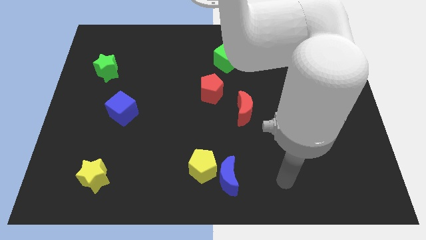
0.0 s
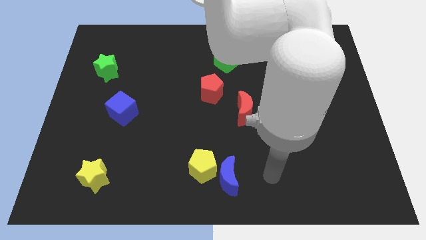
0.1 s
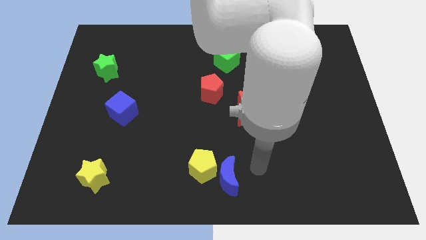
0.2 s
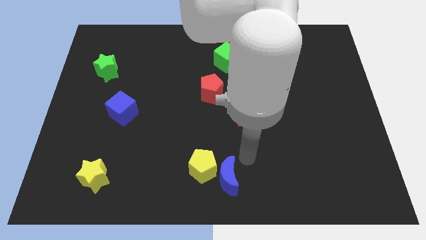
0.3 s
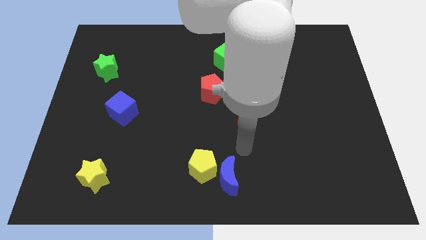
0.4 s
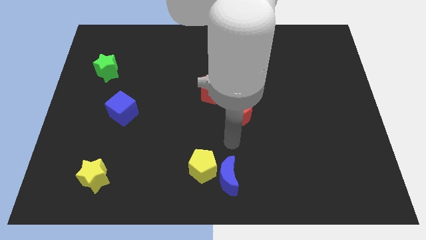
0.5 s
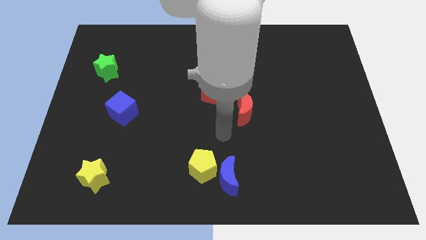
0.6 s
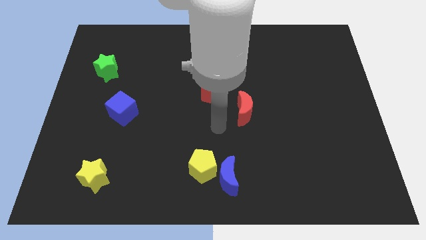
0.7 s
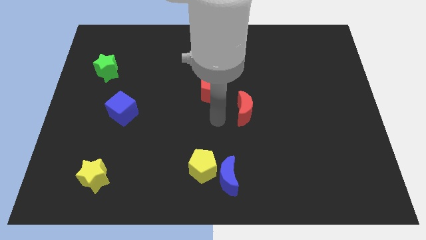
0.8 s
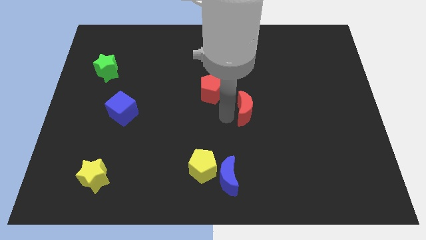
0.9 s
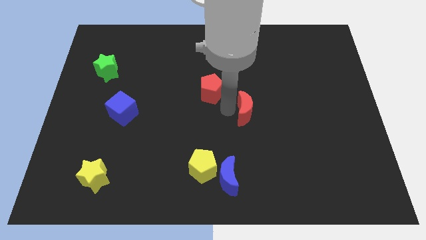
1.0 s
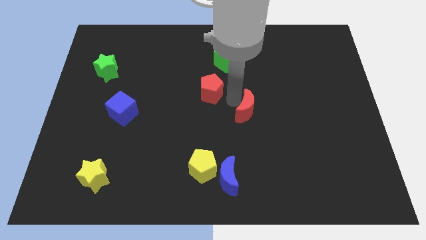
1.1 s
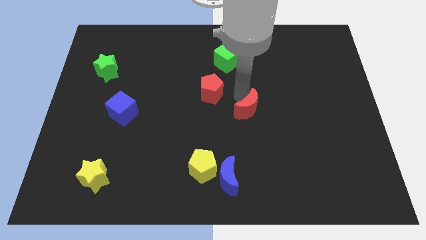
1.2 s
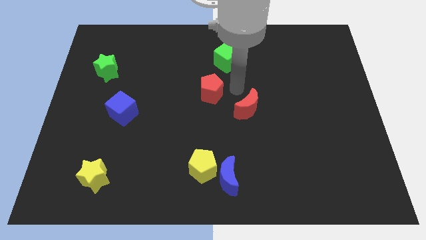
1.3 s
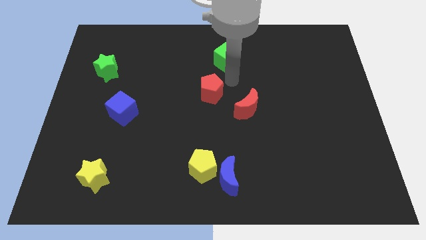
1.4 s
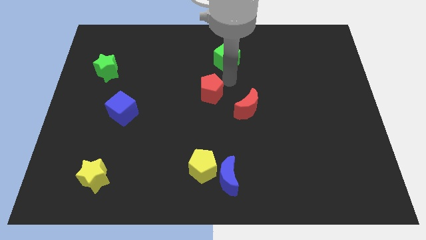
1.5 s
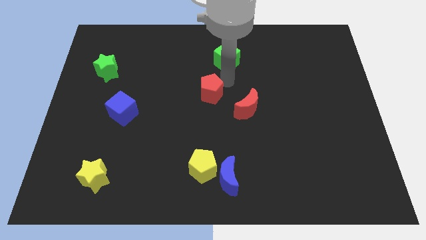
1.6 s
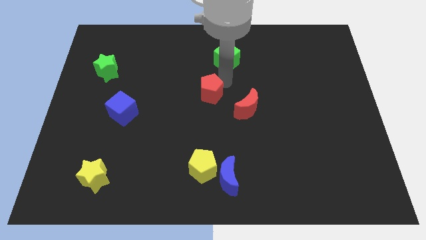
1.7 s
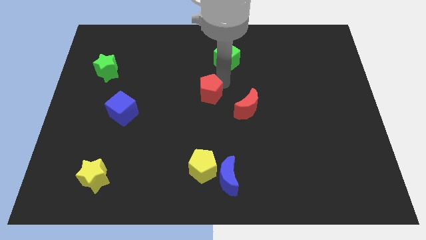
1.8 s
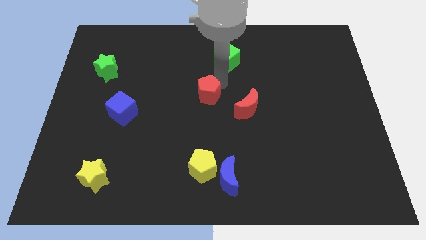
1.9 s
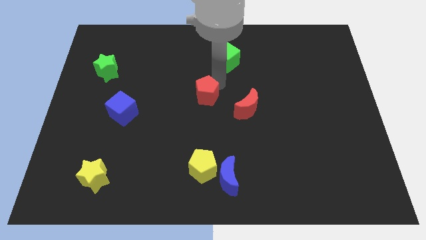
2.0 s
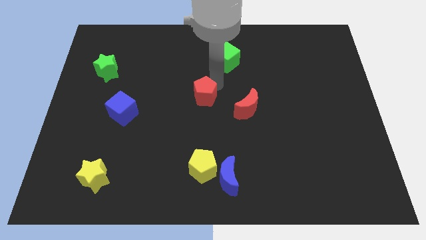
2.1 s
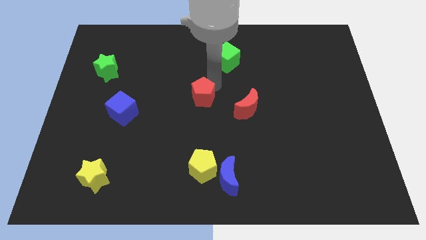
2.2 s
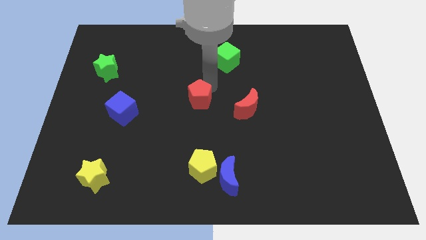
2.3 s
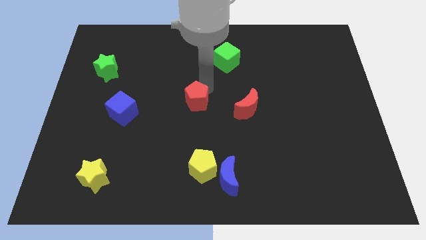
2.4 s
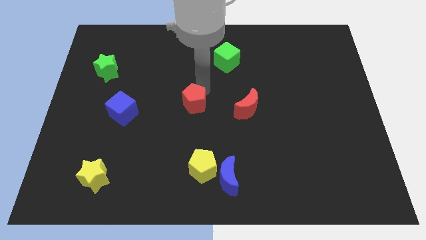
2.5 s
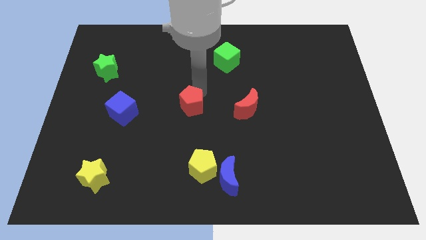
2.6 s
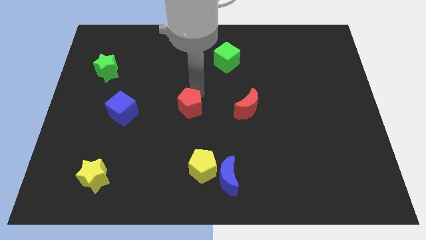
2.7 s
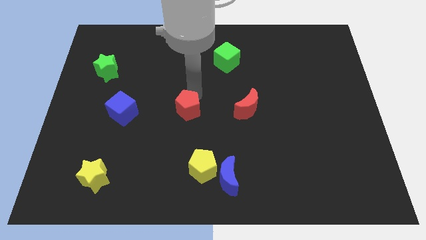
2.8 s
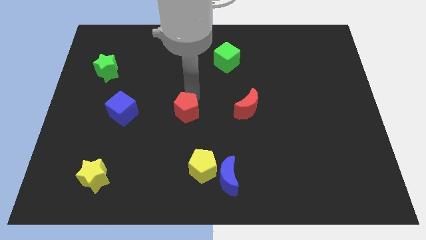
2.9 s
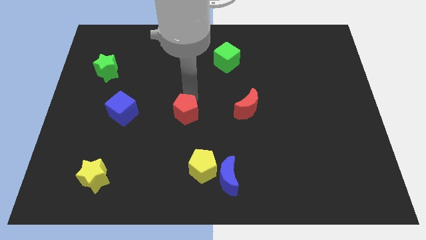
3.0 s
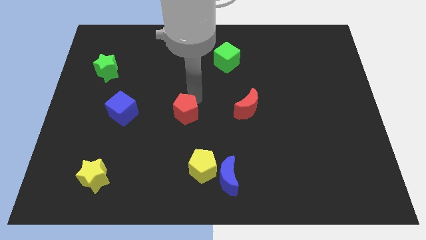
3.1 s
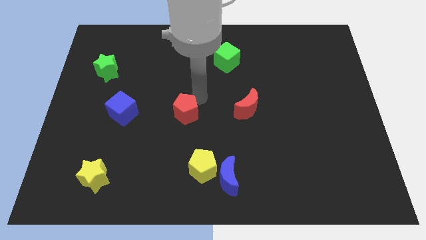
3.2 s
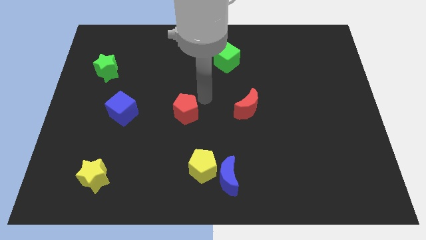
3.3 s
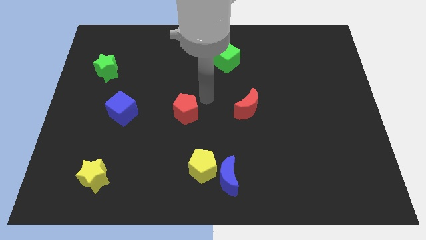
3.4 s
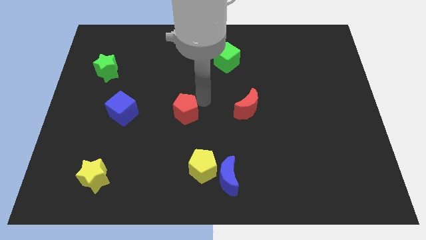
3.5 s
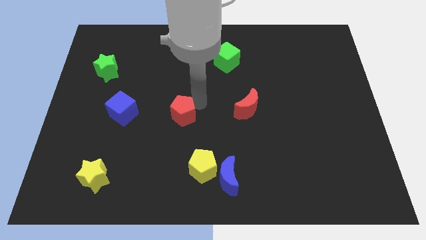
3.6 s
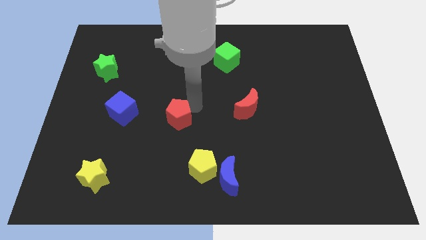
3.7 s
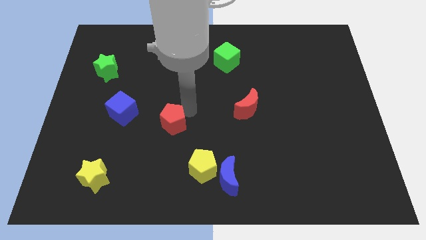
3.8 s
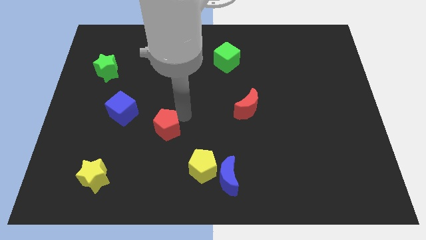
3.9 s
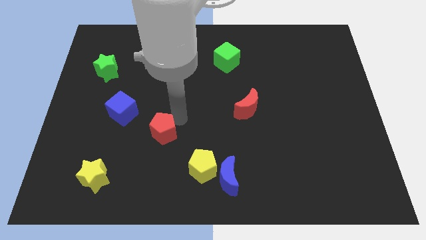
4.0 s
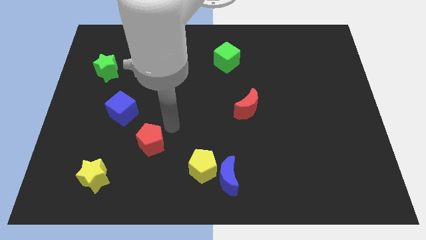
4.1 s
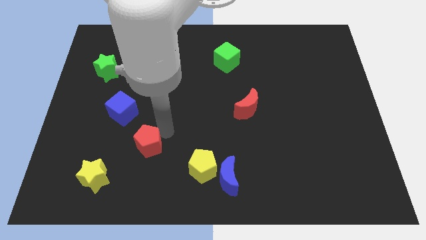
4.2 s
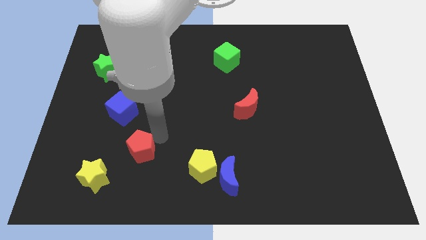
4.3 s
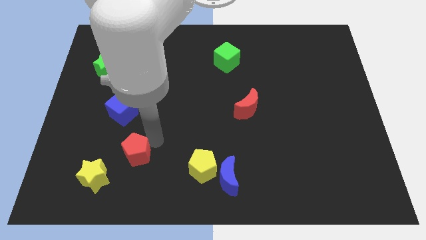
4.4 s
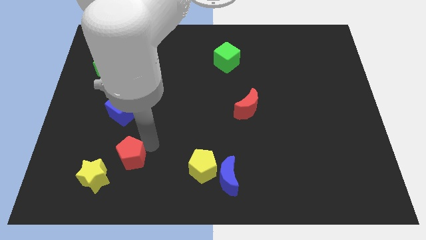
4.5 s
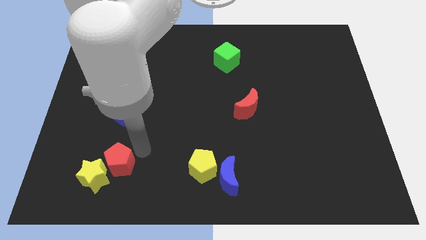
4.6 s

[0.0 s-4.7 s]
put the red pentagon close to the yellow star

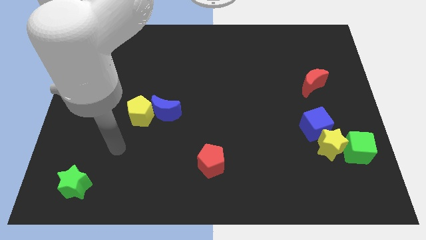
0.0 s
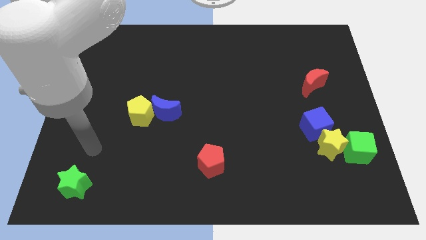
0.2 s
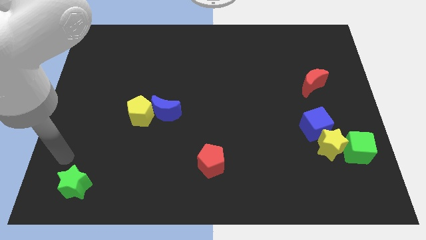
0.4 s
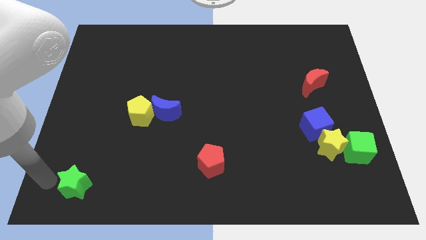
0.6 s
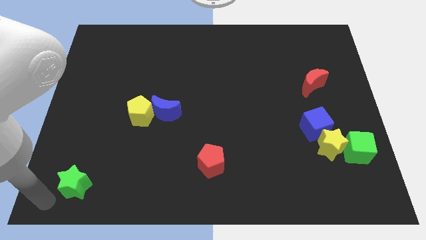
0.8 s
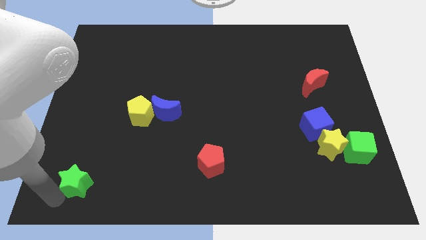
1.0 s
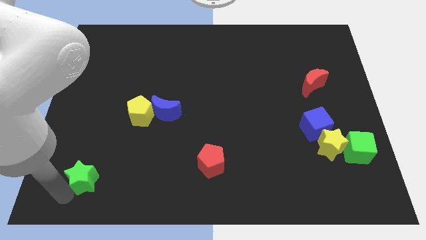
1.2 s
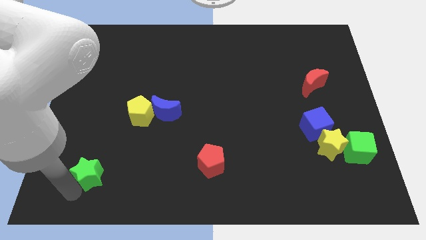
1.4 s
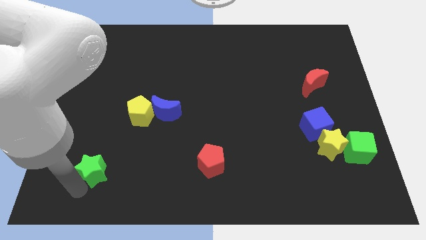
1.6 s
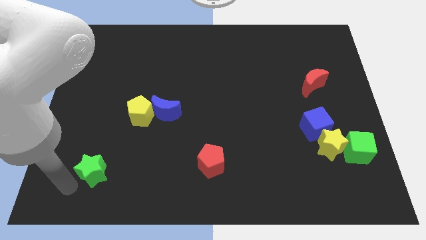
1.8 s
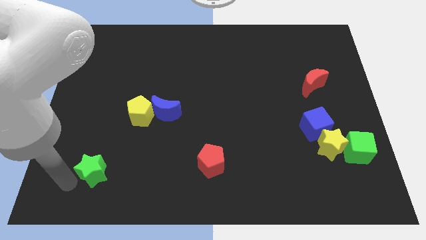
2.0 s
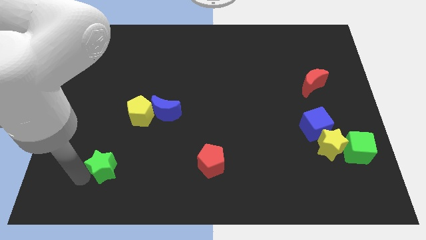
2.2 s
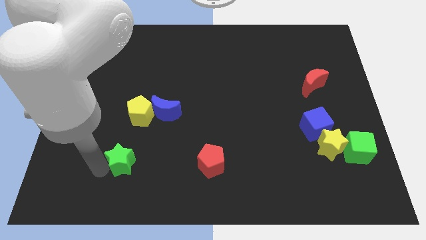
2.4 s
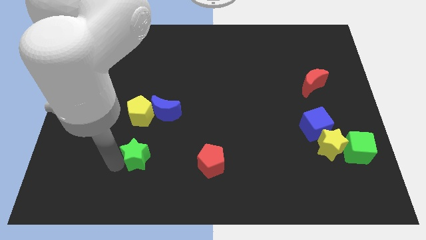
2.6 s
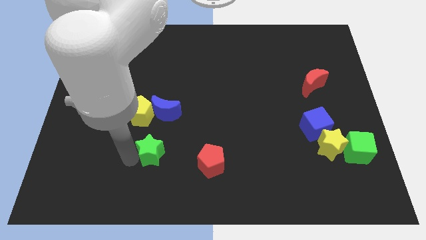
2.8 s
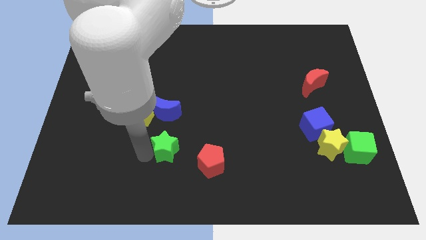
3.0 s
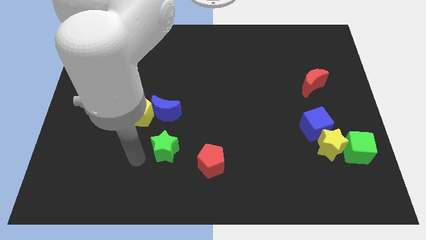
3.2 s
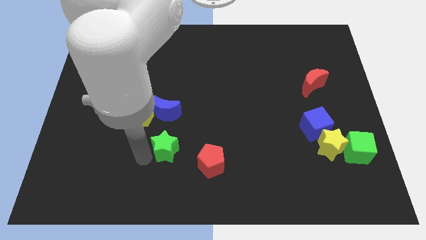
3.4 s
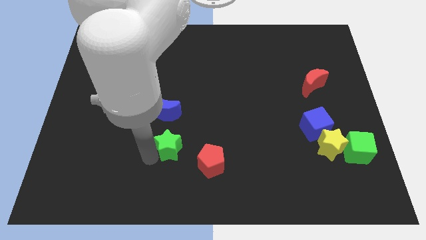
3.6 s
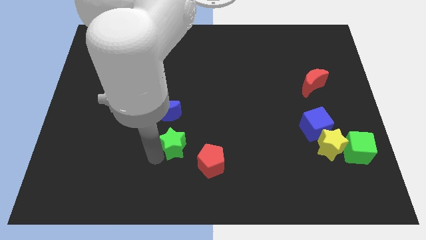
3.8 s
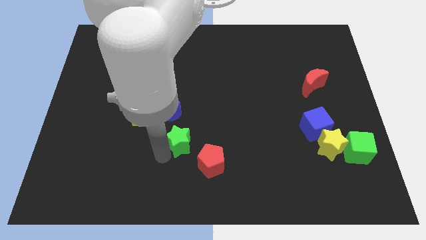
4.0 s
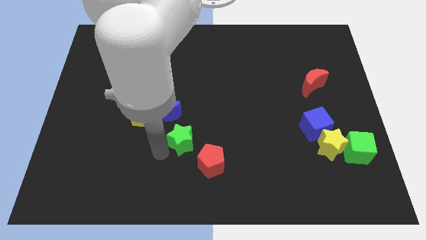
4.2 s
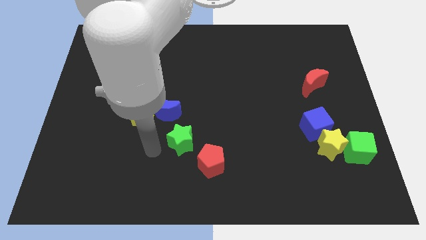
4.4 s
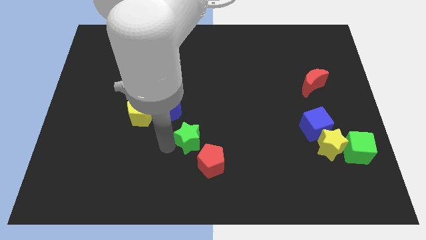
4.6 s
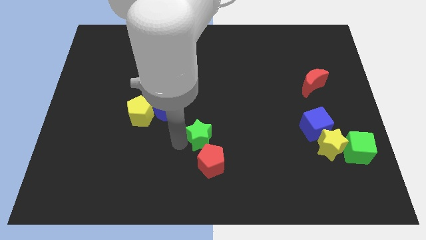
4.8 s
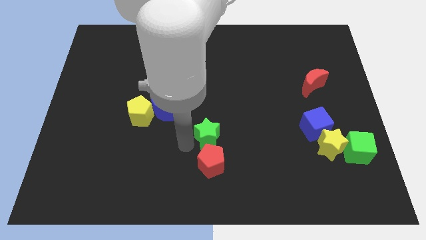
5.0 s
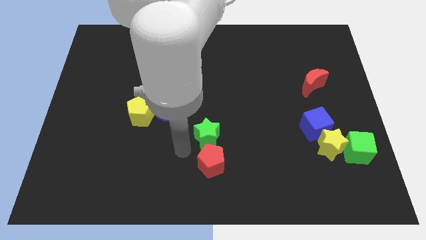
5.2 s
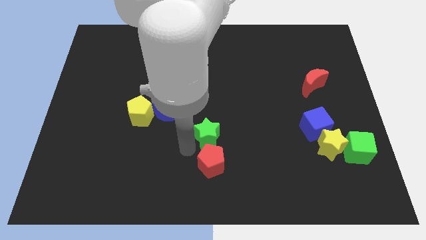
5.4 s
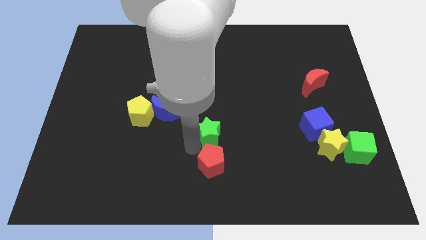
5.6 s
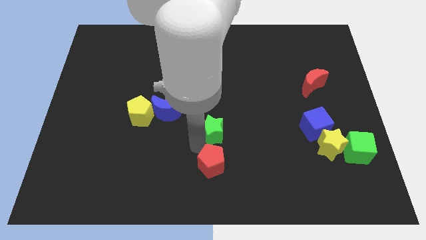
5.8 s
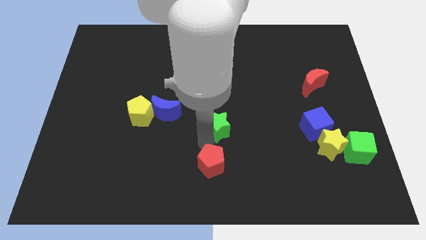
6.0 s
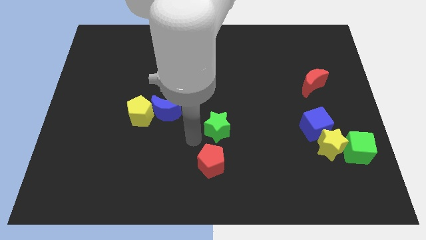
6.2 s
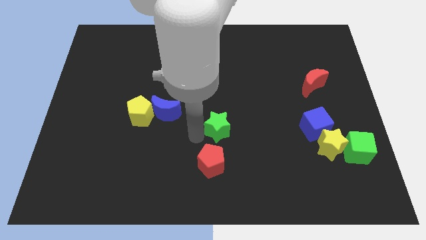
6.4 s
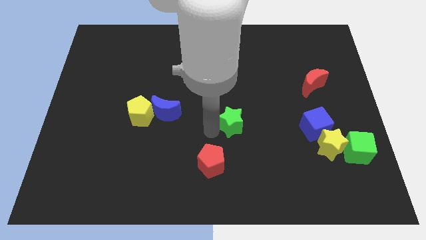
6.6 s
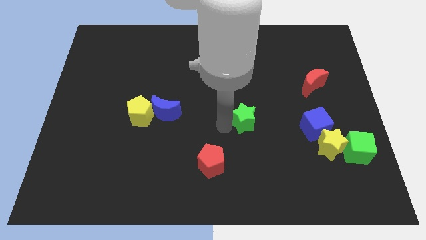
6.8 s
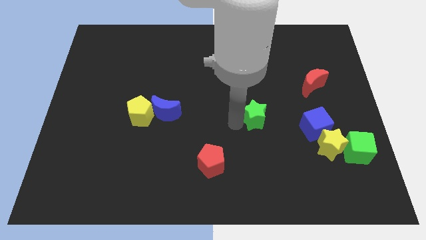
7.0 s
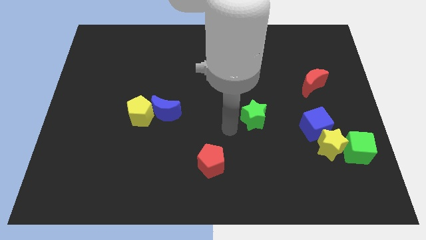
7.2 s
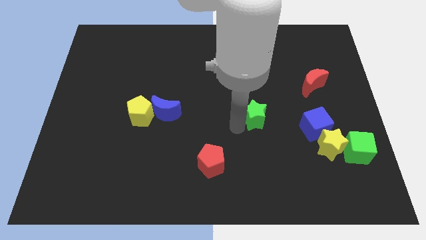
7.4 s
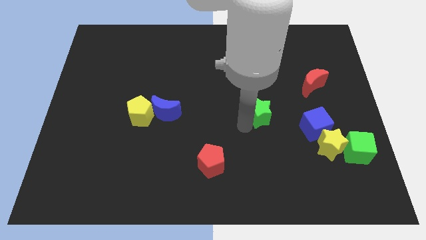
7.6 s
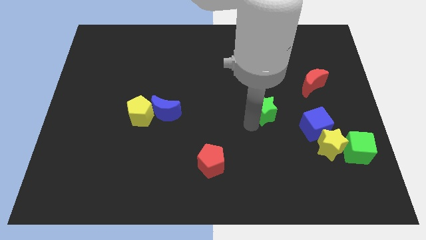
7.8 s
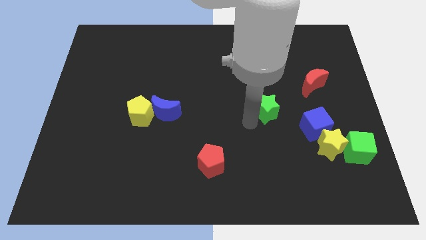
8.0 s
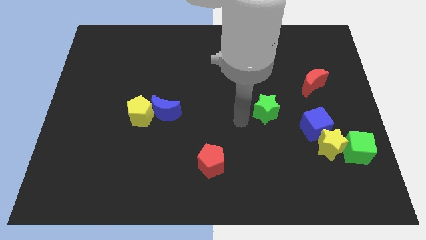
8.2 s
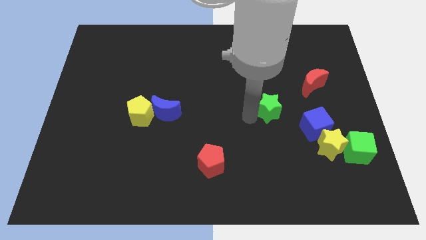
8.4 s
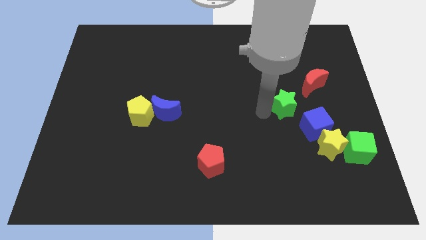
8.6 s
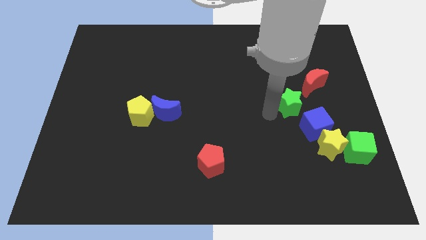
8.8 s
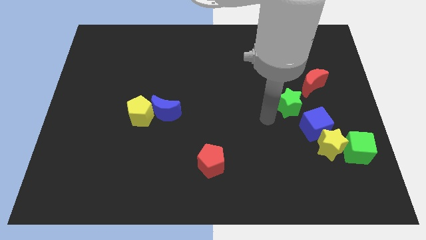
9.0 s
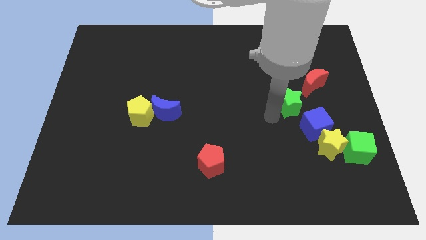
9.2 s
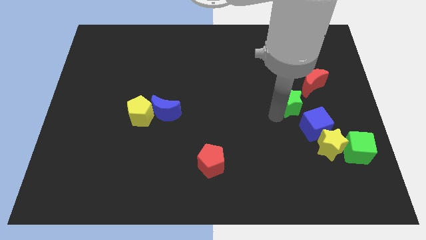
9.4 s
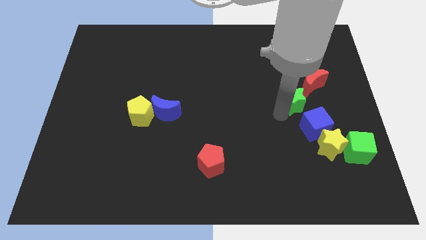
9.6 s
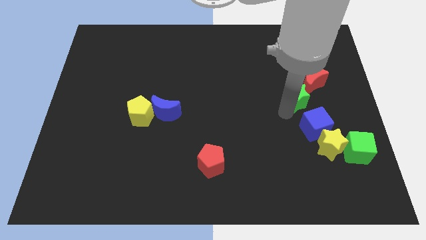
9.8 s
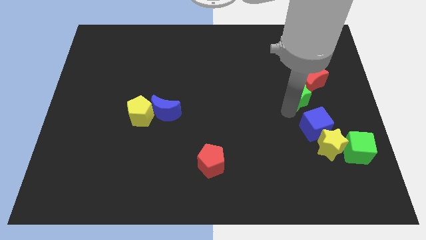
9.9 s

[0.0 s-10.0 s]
move the green star towards the red moon
